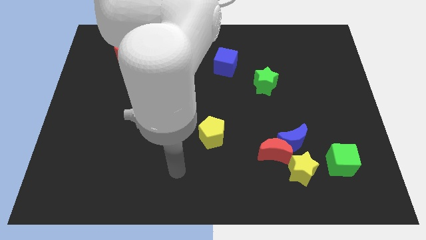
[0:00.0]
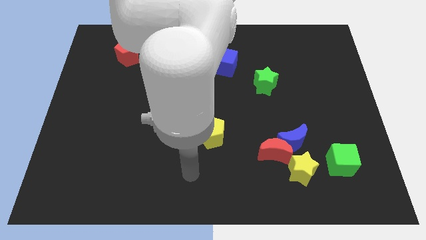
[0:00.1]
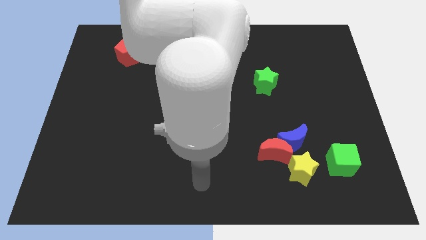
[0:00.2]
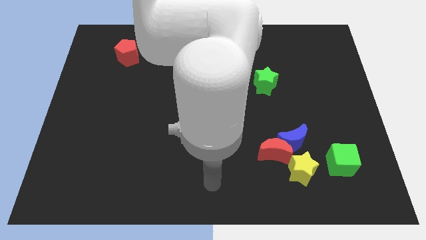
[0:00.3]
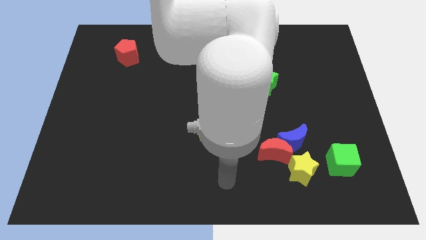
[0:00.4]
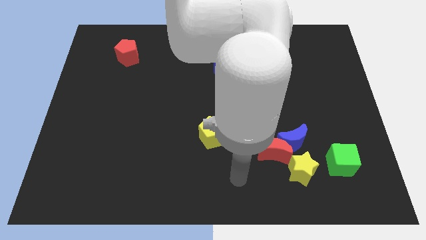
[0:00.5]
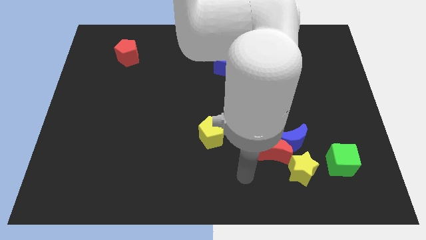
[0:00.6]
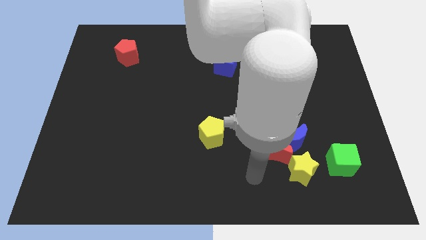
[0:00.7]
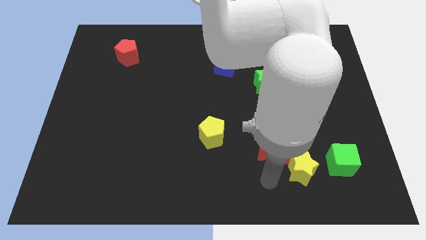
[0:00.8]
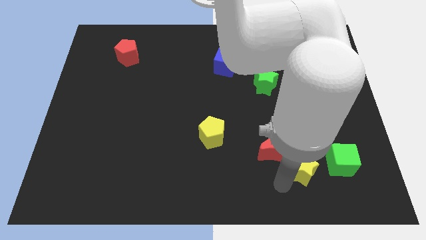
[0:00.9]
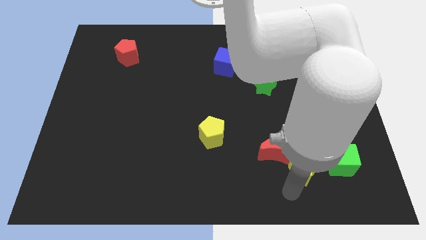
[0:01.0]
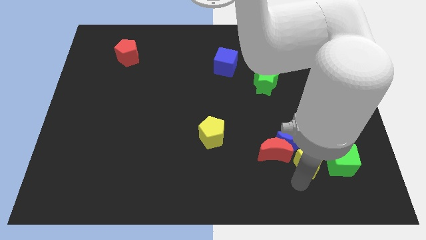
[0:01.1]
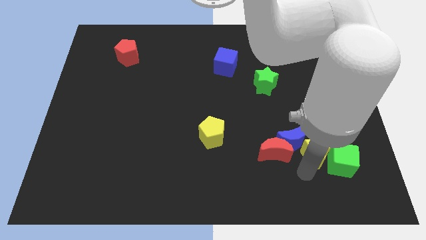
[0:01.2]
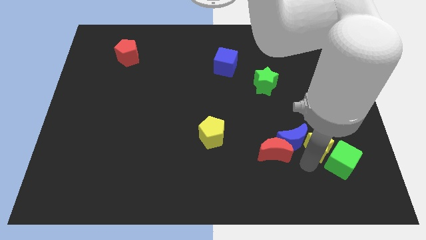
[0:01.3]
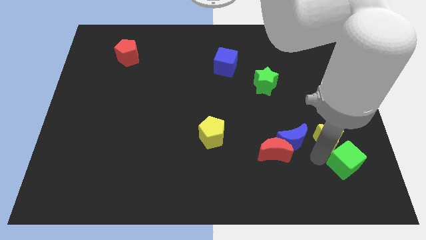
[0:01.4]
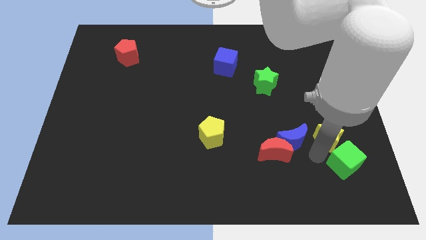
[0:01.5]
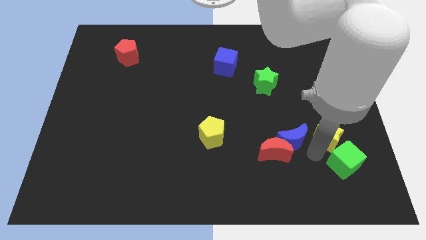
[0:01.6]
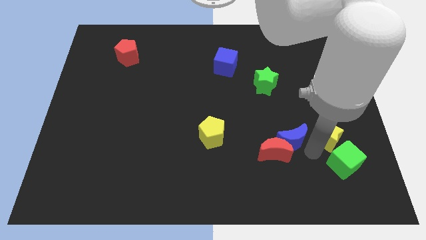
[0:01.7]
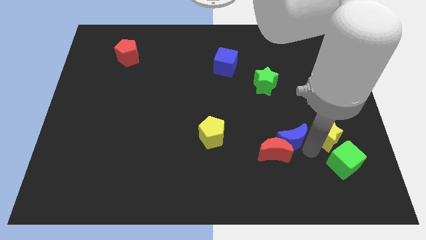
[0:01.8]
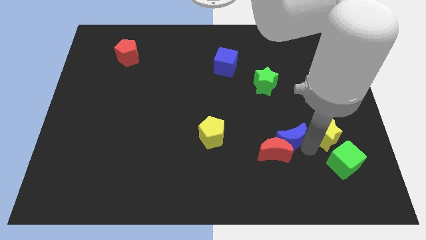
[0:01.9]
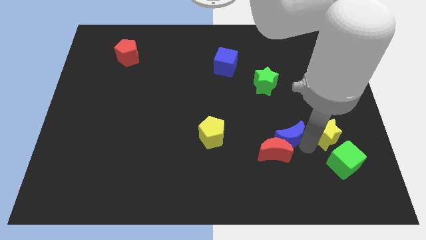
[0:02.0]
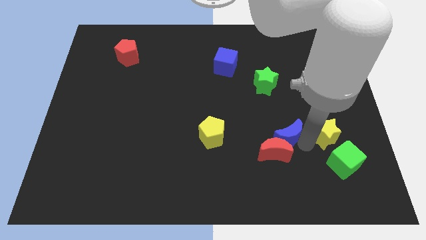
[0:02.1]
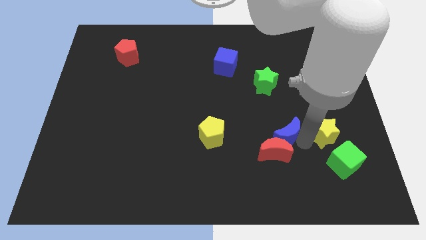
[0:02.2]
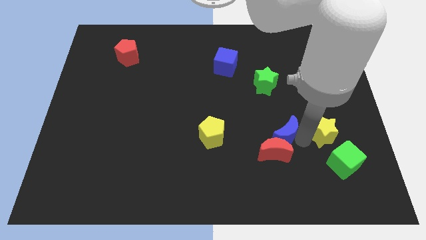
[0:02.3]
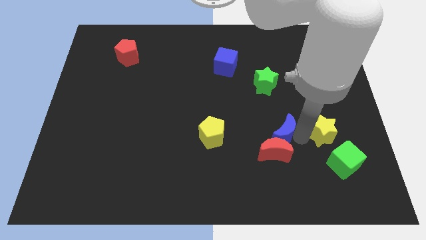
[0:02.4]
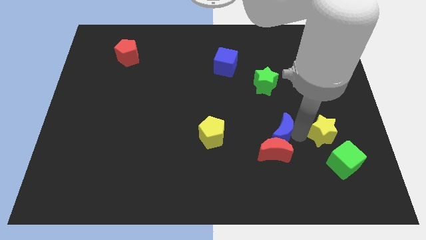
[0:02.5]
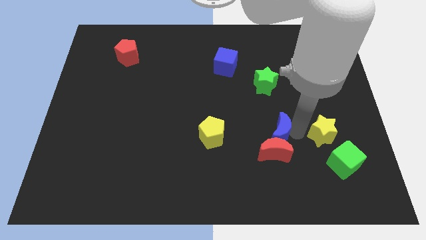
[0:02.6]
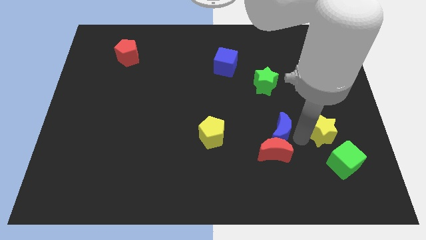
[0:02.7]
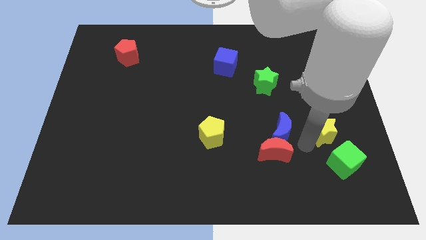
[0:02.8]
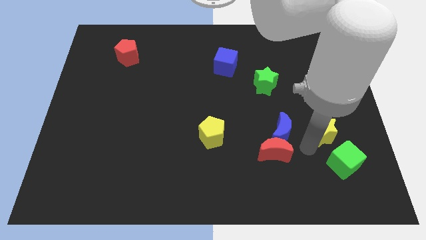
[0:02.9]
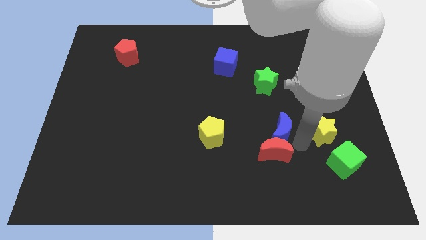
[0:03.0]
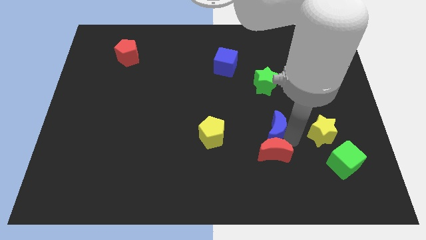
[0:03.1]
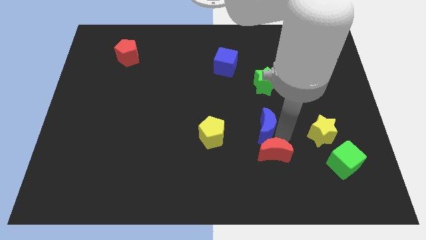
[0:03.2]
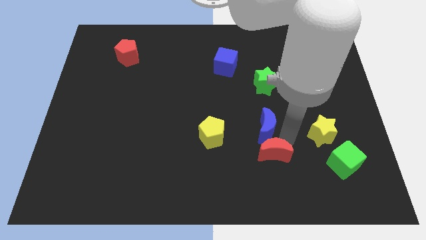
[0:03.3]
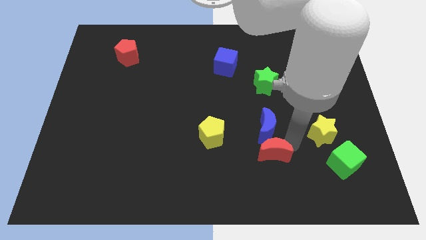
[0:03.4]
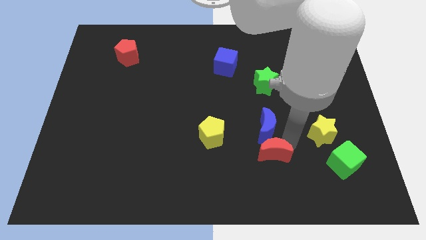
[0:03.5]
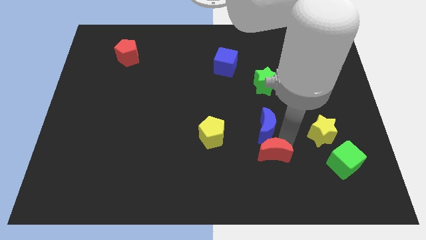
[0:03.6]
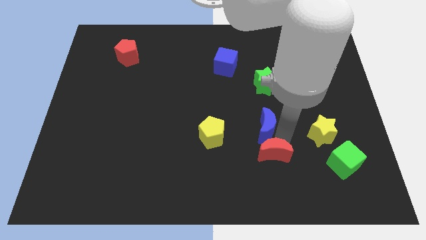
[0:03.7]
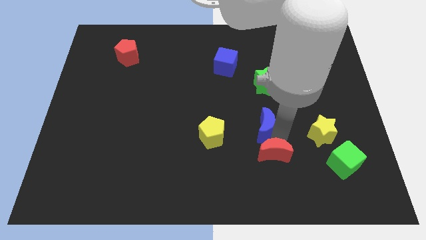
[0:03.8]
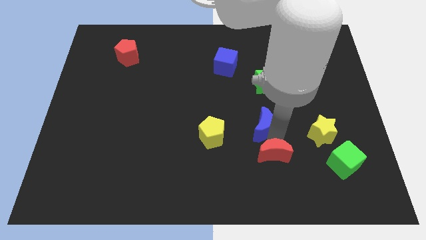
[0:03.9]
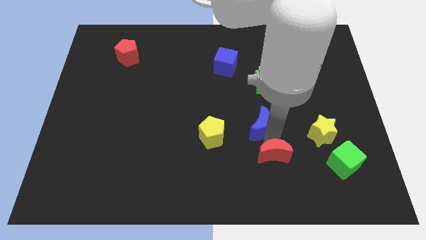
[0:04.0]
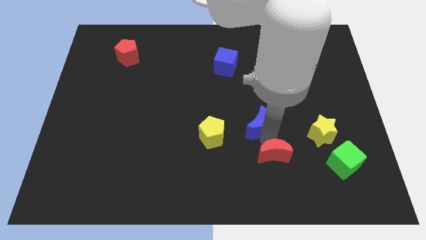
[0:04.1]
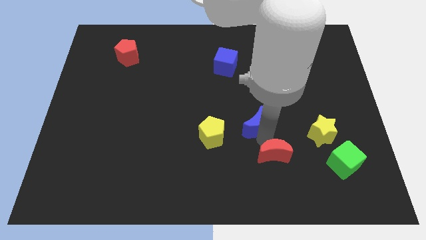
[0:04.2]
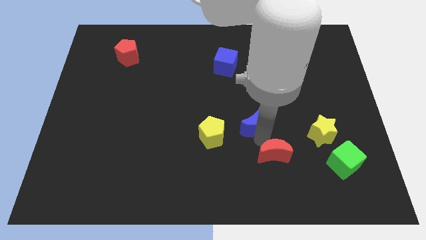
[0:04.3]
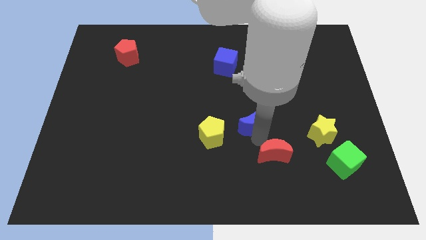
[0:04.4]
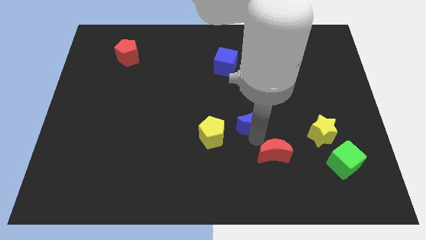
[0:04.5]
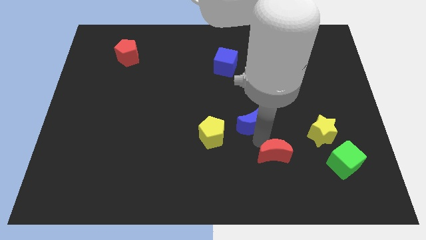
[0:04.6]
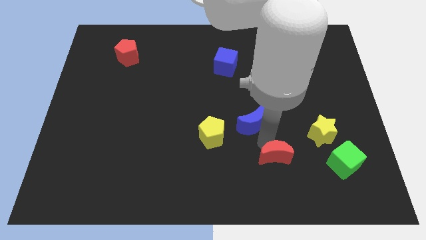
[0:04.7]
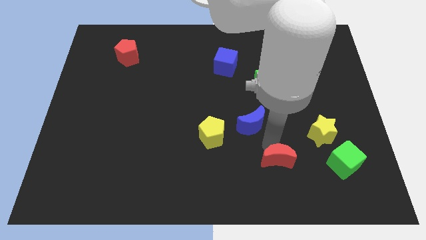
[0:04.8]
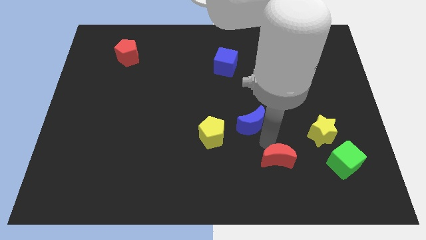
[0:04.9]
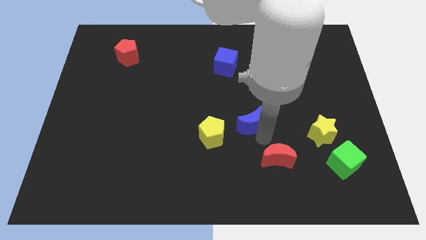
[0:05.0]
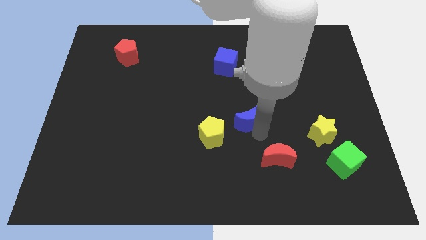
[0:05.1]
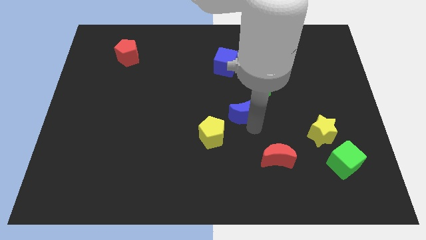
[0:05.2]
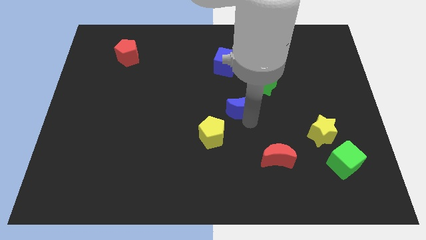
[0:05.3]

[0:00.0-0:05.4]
slide the blue moon to the bottom side of the blue cube

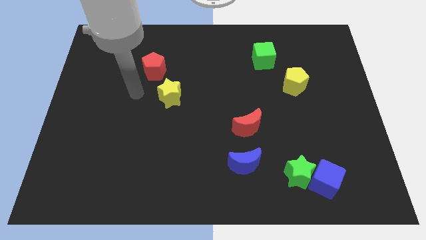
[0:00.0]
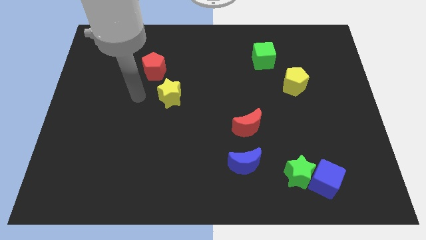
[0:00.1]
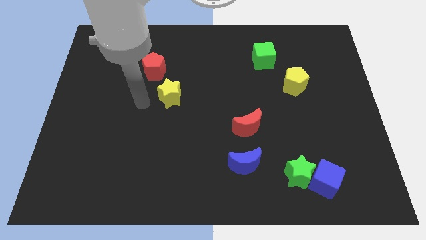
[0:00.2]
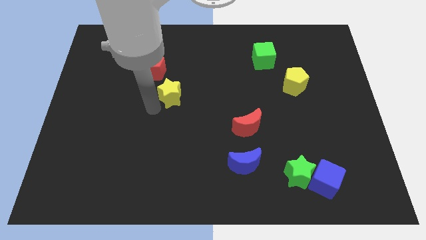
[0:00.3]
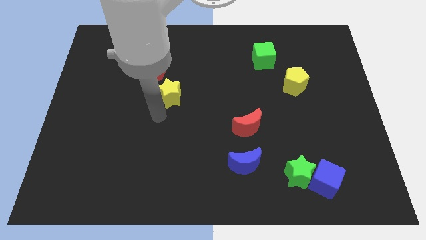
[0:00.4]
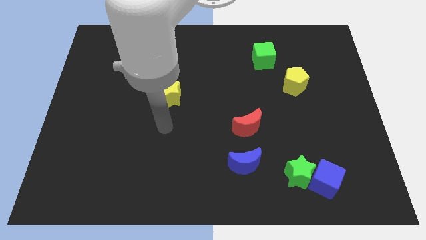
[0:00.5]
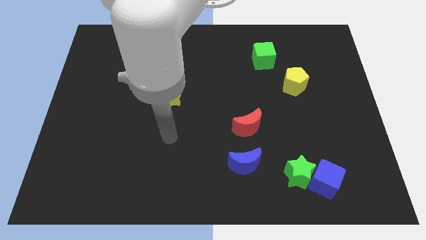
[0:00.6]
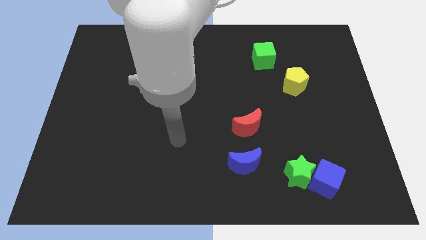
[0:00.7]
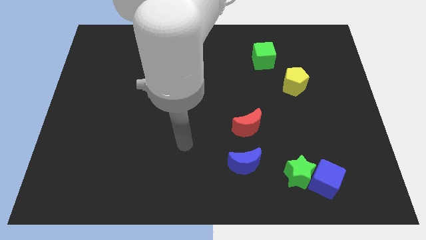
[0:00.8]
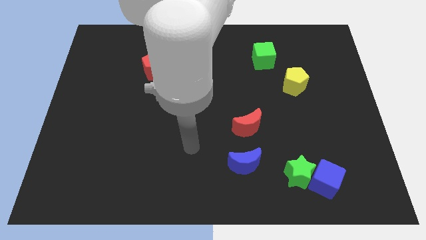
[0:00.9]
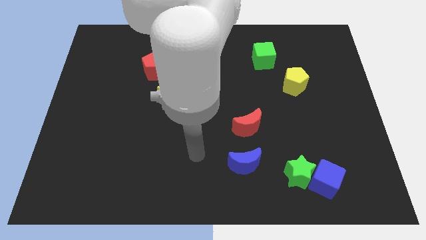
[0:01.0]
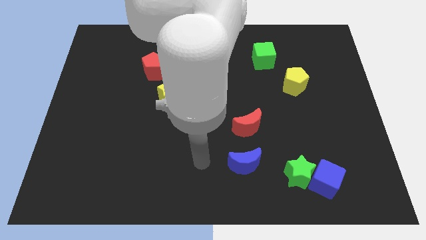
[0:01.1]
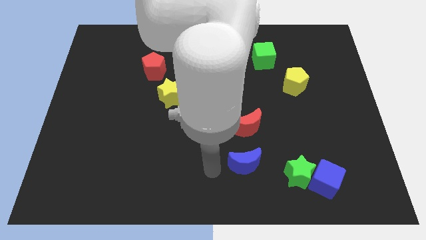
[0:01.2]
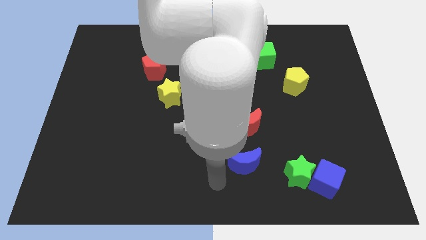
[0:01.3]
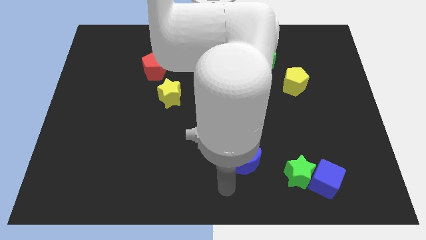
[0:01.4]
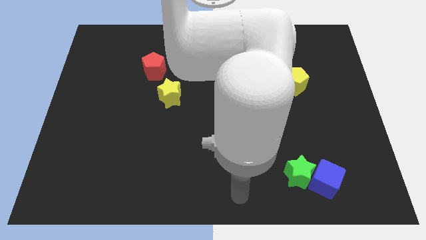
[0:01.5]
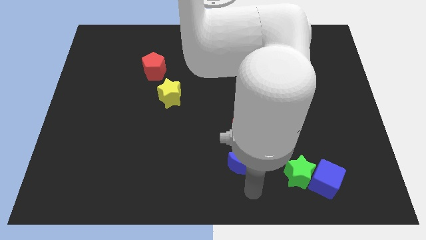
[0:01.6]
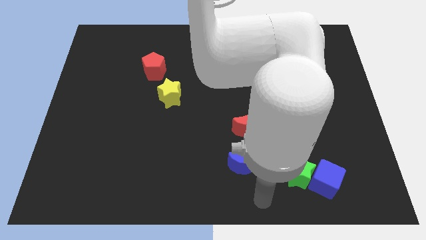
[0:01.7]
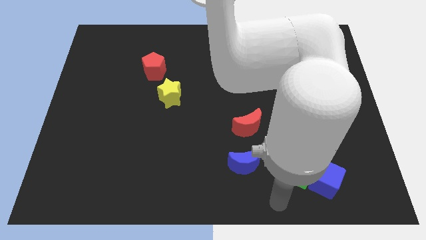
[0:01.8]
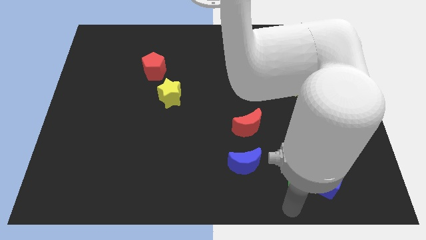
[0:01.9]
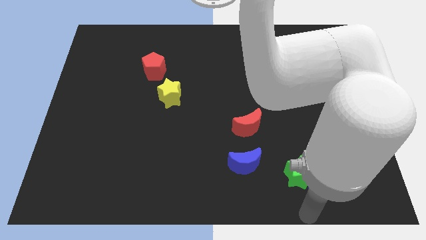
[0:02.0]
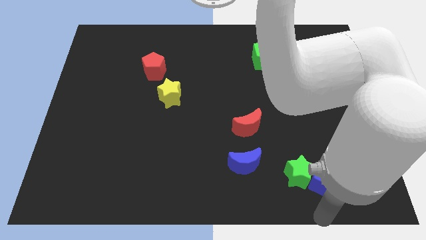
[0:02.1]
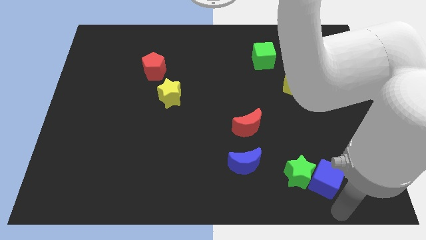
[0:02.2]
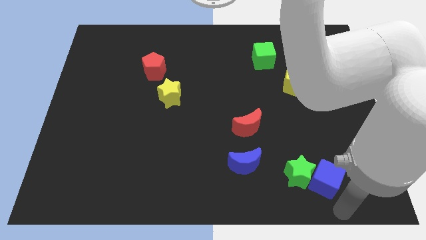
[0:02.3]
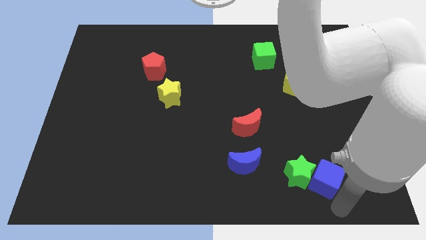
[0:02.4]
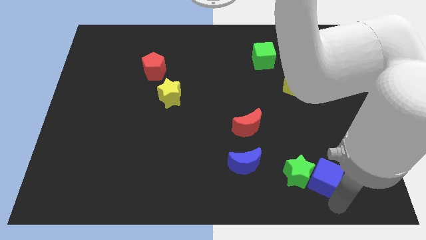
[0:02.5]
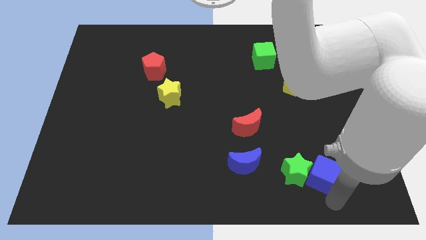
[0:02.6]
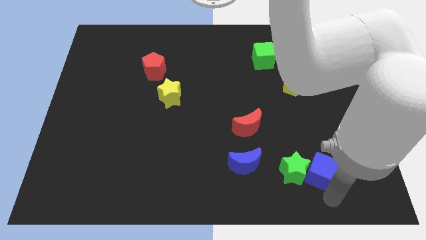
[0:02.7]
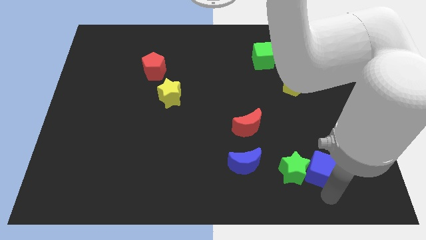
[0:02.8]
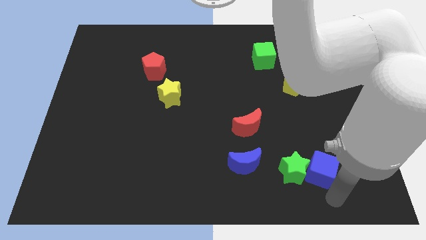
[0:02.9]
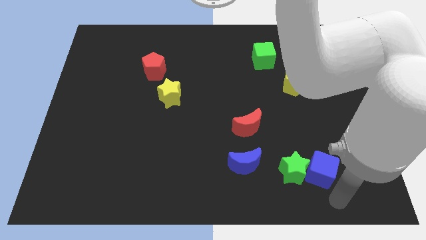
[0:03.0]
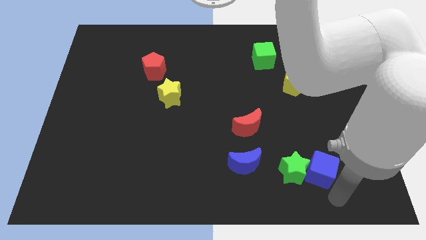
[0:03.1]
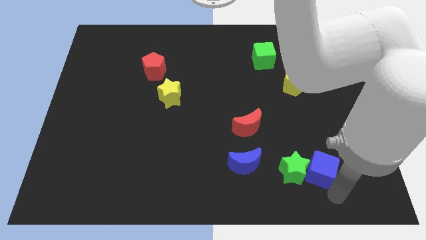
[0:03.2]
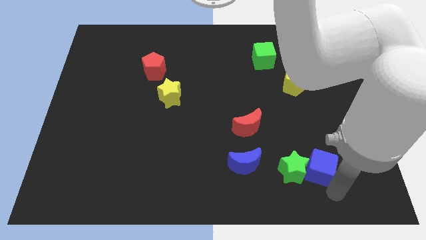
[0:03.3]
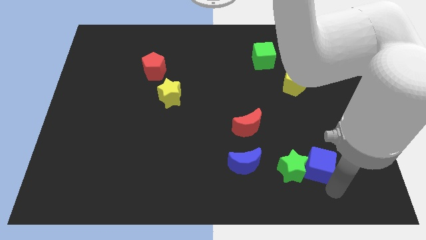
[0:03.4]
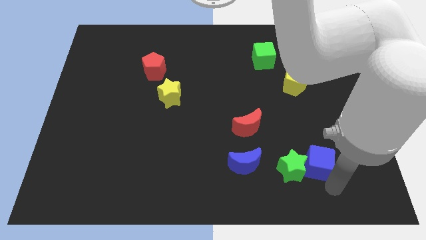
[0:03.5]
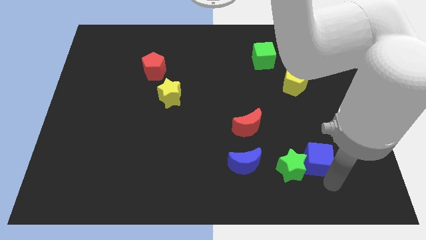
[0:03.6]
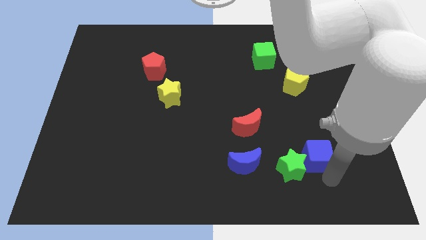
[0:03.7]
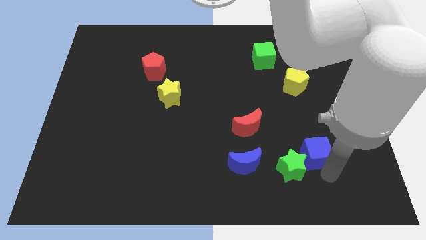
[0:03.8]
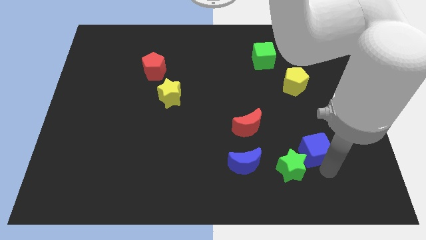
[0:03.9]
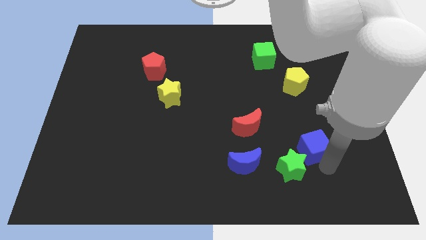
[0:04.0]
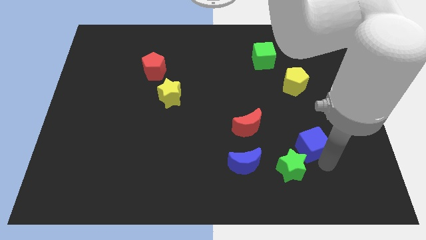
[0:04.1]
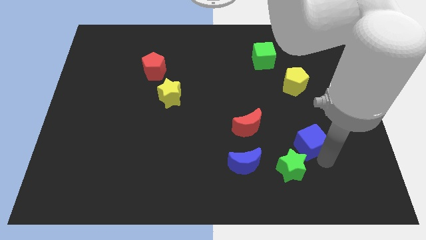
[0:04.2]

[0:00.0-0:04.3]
put the blue cube just right of the red moon
